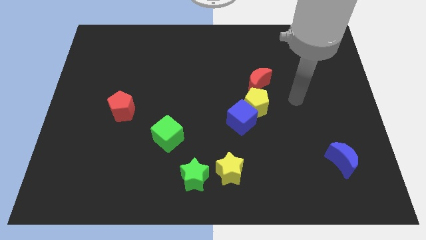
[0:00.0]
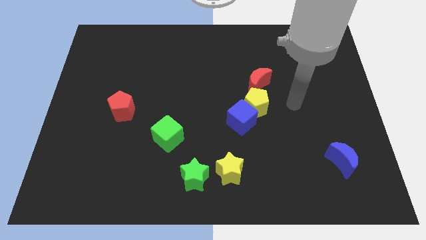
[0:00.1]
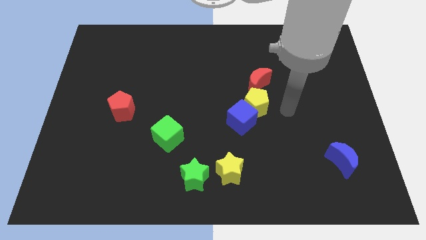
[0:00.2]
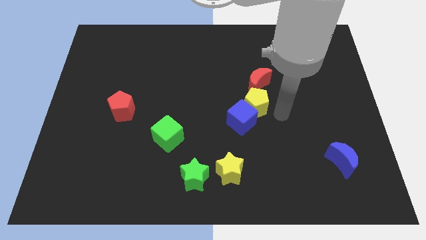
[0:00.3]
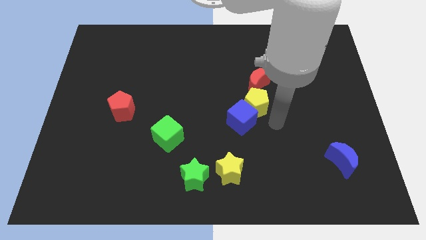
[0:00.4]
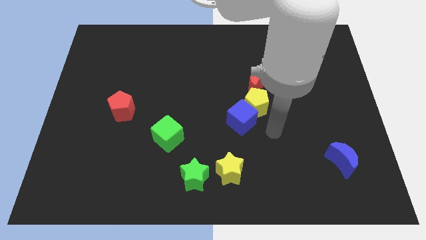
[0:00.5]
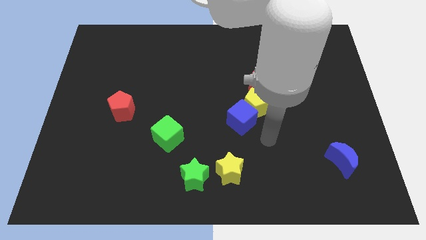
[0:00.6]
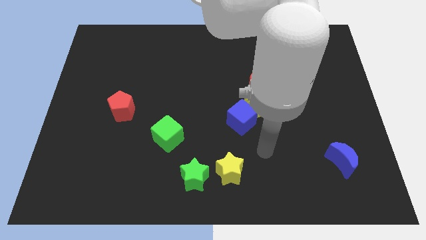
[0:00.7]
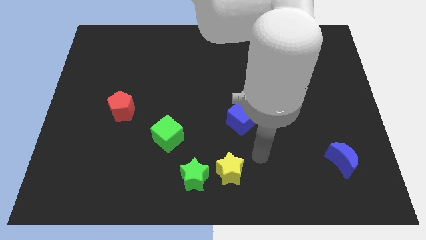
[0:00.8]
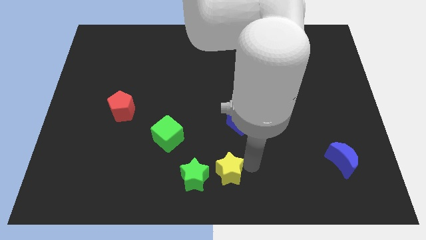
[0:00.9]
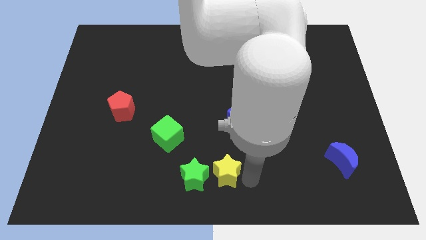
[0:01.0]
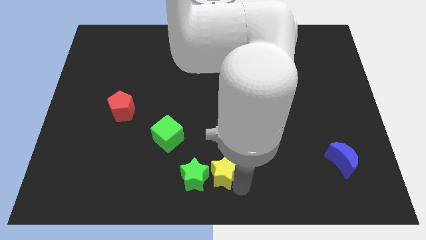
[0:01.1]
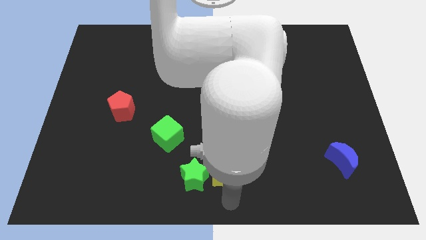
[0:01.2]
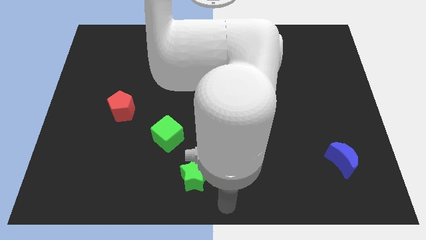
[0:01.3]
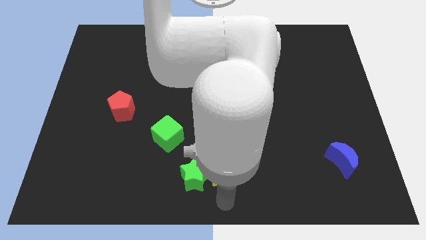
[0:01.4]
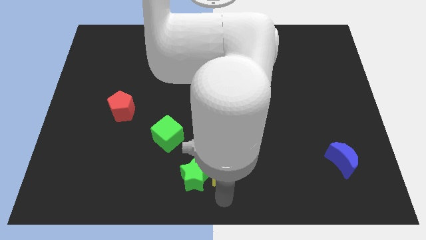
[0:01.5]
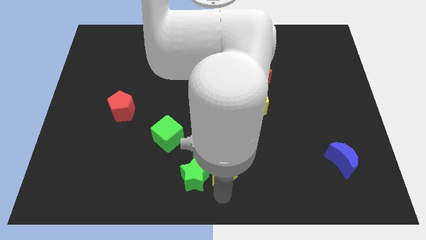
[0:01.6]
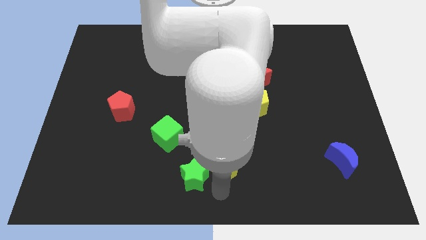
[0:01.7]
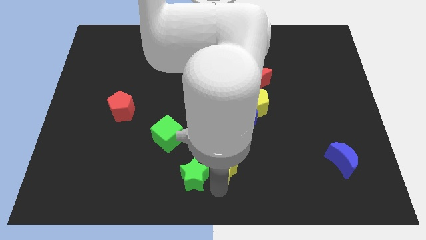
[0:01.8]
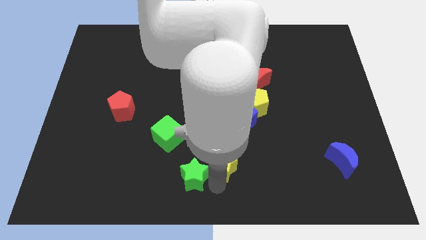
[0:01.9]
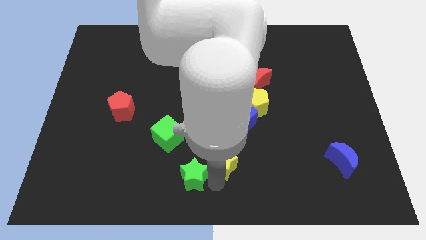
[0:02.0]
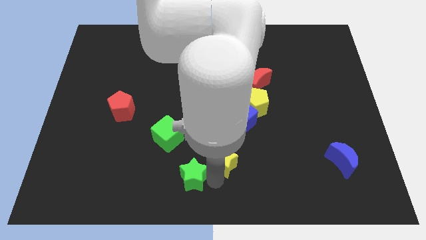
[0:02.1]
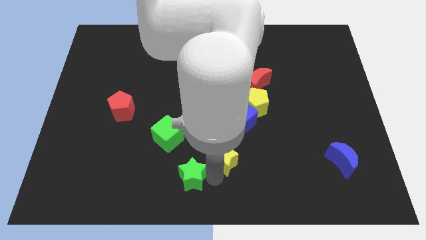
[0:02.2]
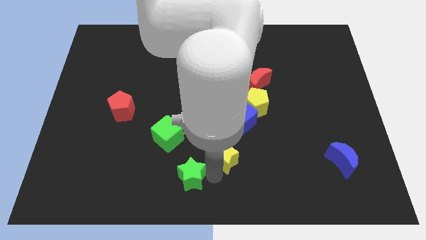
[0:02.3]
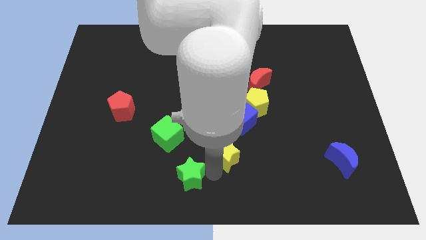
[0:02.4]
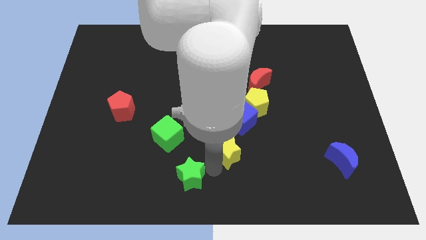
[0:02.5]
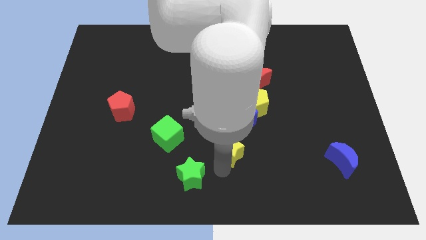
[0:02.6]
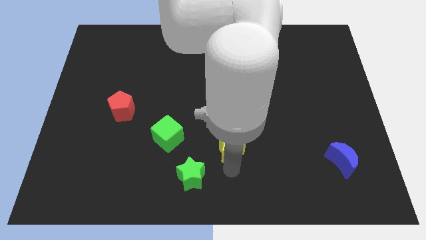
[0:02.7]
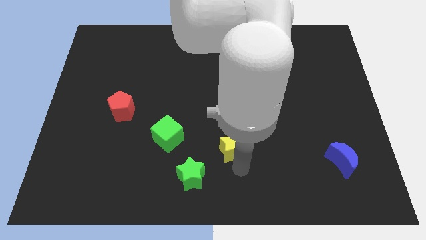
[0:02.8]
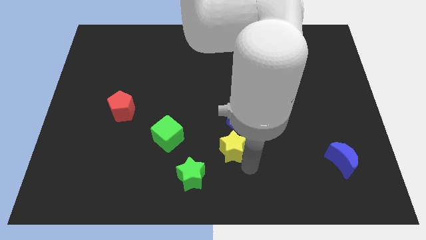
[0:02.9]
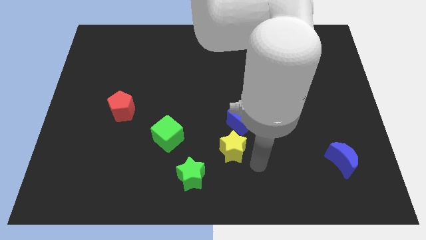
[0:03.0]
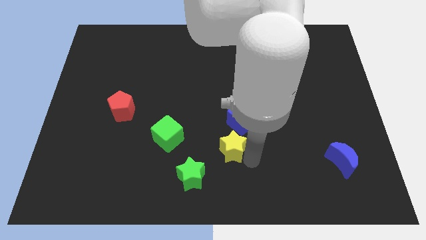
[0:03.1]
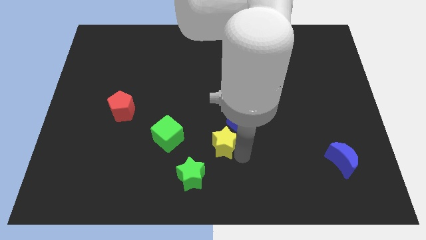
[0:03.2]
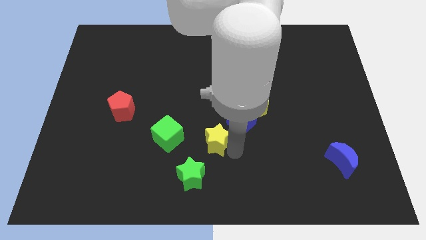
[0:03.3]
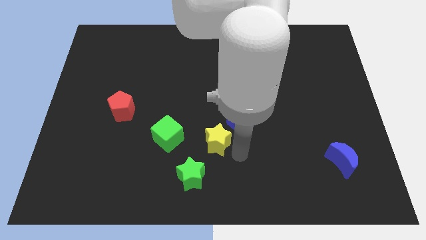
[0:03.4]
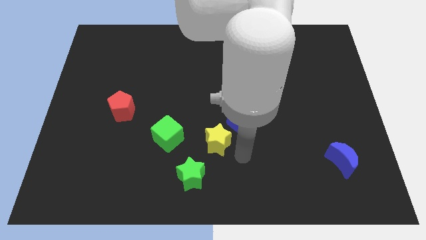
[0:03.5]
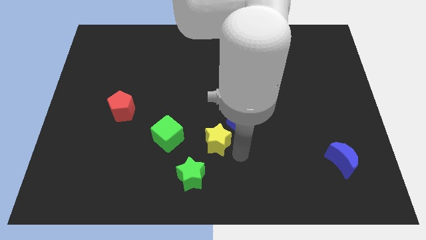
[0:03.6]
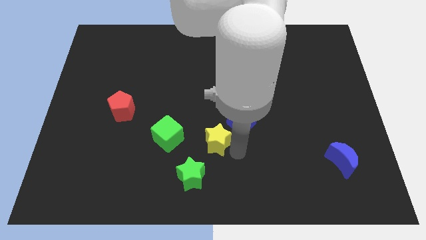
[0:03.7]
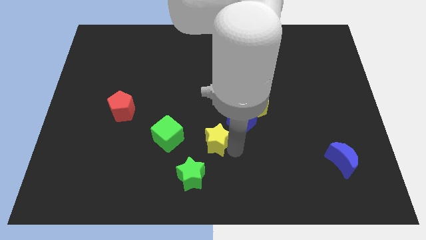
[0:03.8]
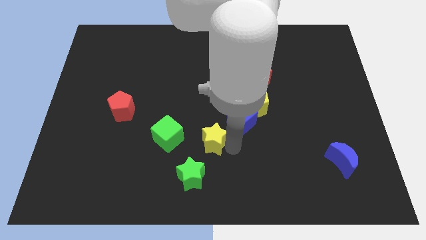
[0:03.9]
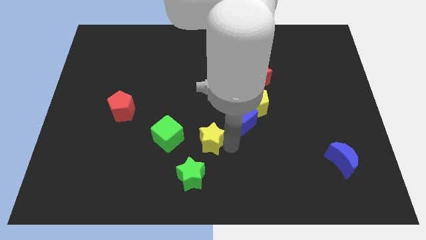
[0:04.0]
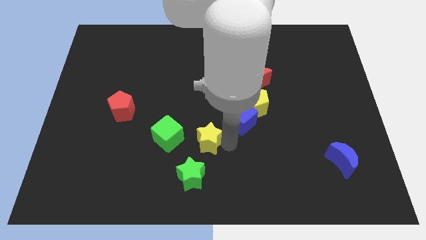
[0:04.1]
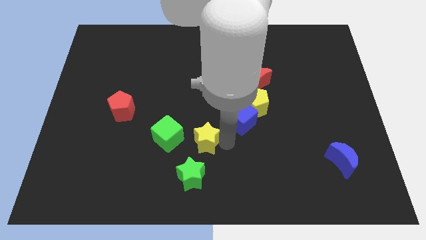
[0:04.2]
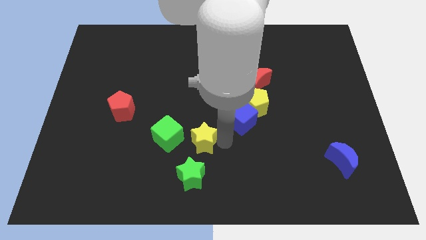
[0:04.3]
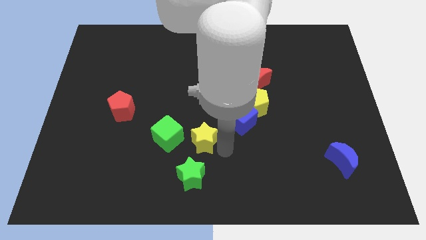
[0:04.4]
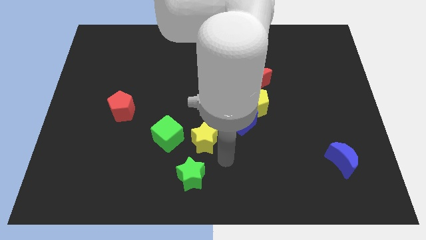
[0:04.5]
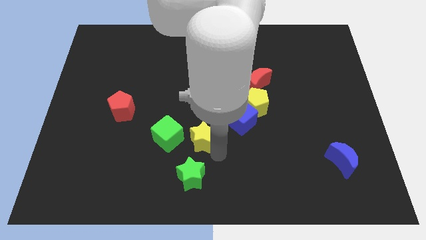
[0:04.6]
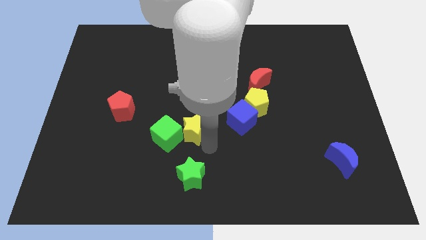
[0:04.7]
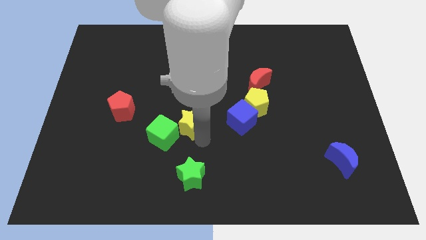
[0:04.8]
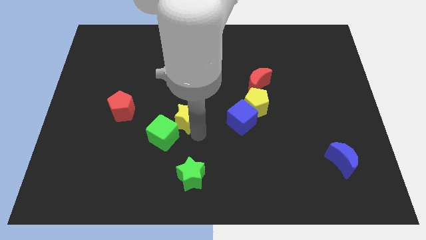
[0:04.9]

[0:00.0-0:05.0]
move the yellow star right of the red pentagon

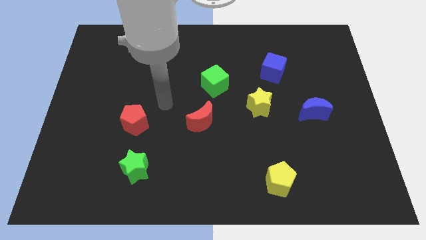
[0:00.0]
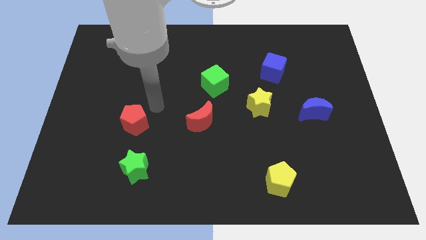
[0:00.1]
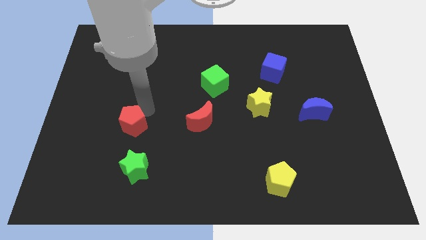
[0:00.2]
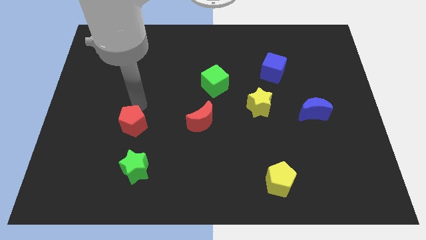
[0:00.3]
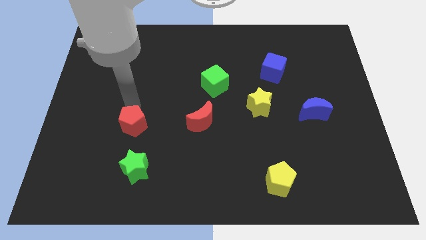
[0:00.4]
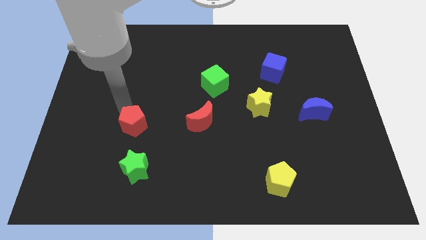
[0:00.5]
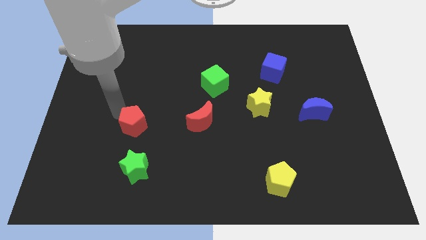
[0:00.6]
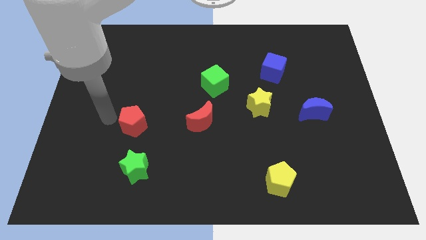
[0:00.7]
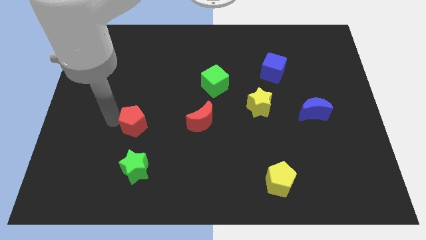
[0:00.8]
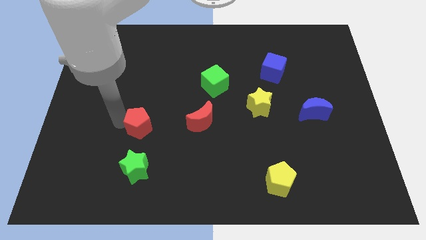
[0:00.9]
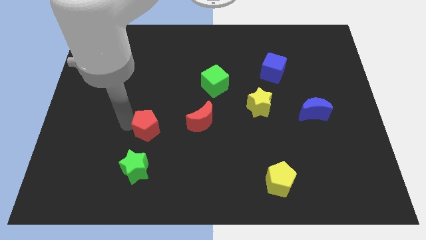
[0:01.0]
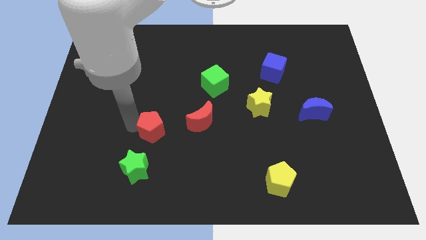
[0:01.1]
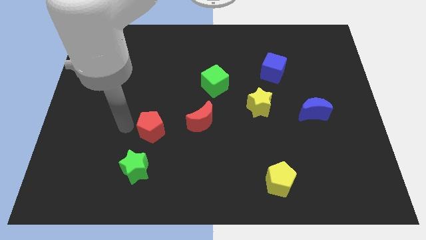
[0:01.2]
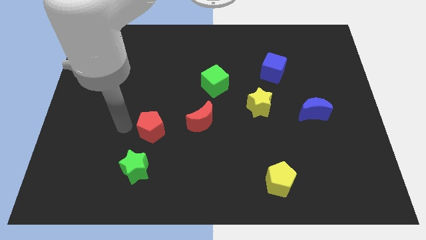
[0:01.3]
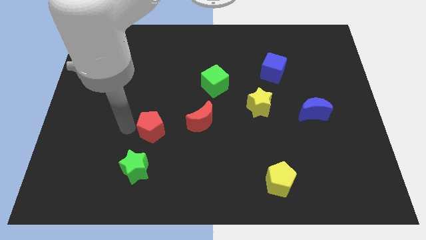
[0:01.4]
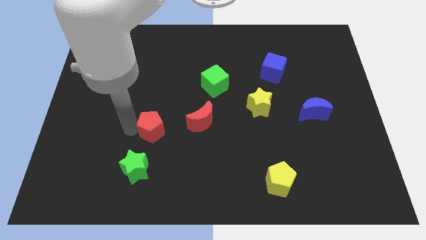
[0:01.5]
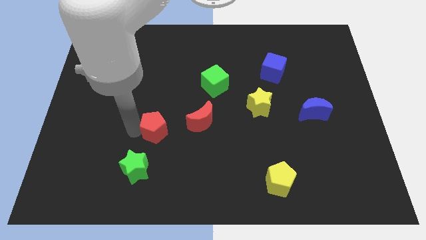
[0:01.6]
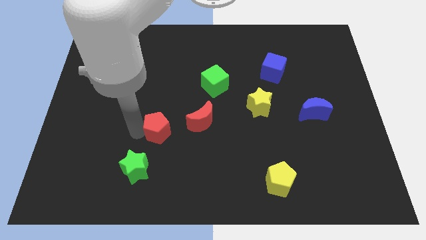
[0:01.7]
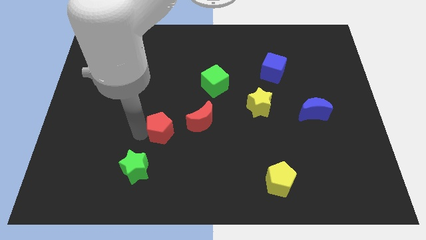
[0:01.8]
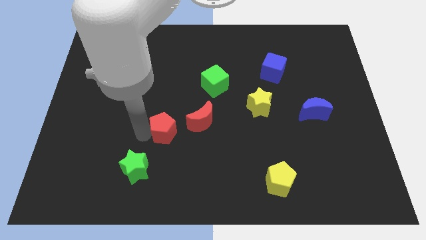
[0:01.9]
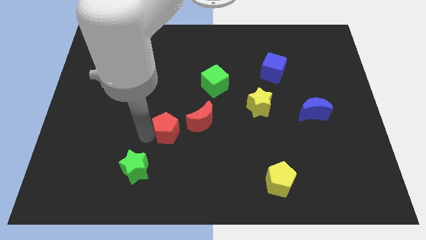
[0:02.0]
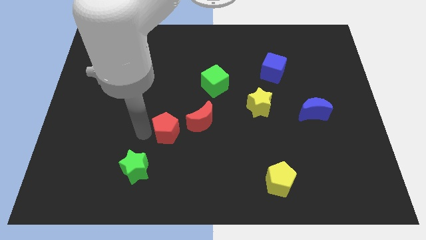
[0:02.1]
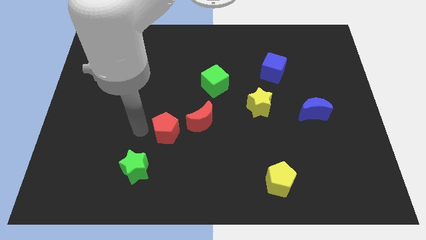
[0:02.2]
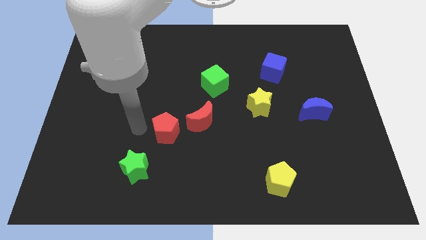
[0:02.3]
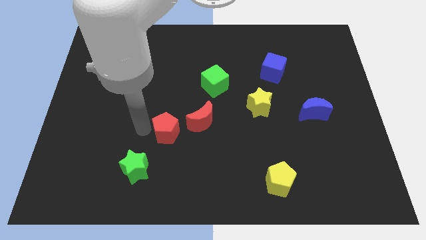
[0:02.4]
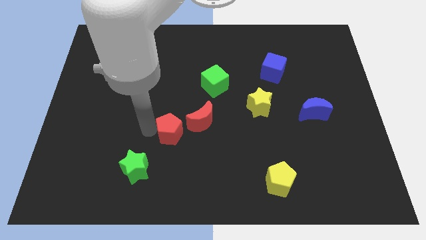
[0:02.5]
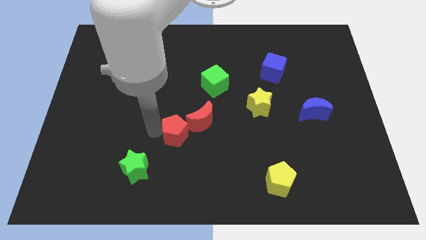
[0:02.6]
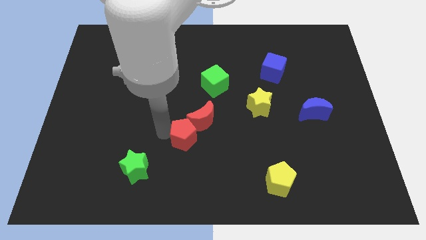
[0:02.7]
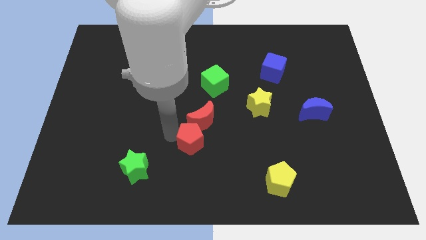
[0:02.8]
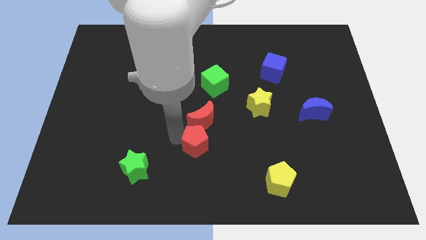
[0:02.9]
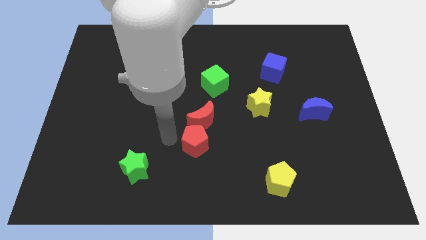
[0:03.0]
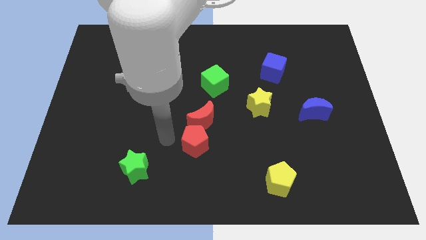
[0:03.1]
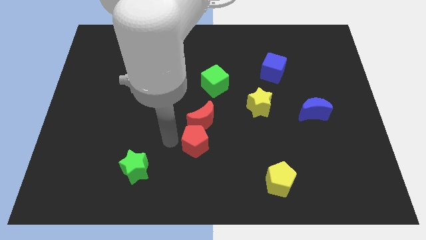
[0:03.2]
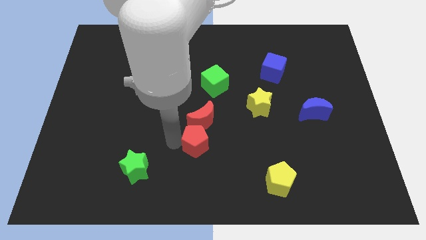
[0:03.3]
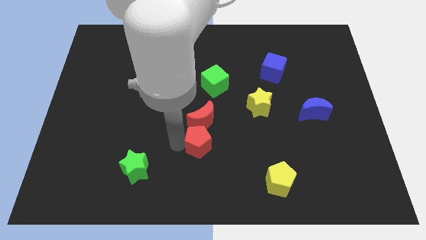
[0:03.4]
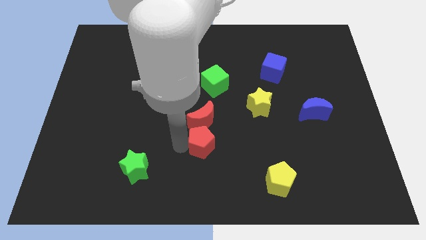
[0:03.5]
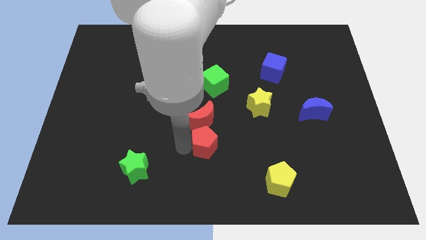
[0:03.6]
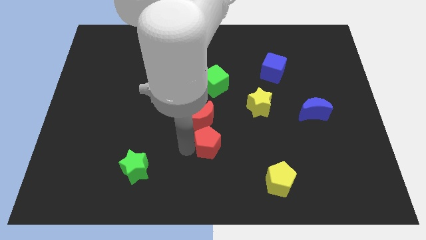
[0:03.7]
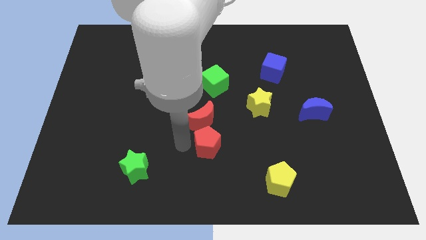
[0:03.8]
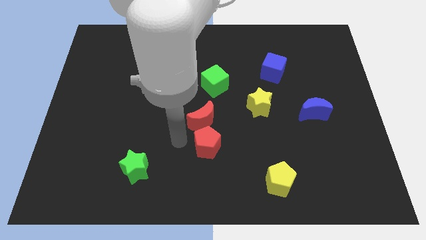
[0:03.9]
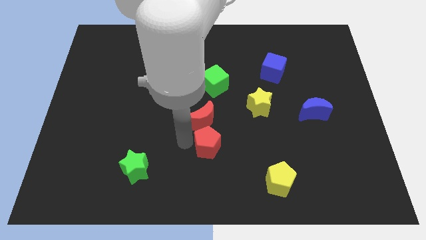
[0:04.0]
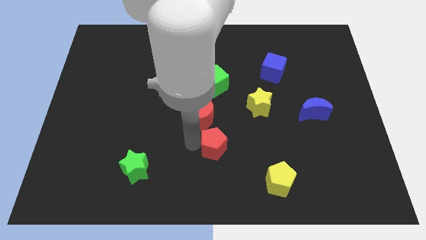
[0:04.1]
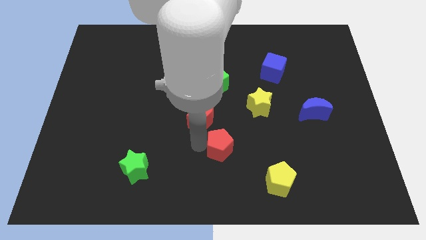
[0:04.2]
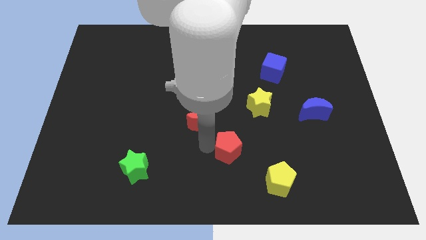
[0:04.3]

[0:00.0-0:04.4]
push the red pentagon to the top left side of the yellow pentagon
